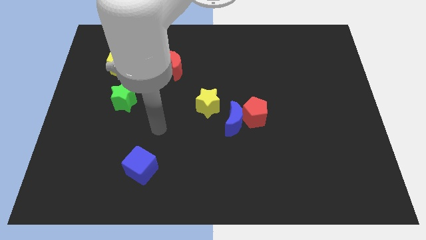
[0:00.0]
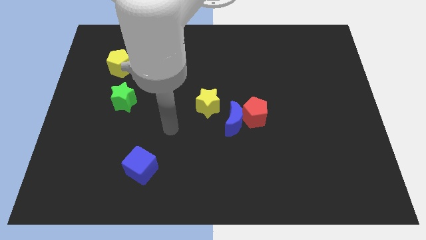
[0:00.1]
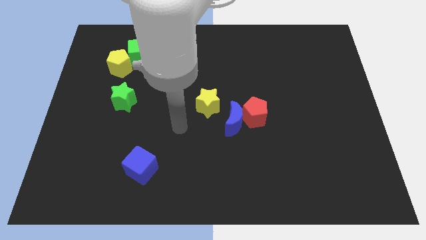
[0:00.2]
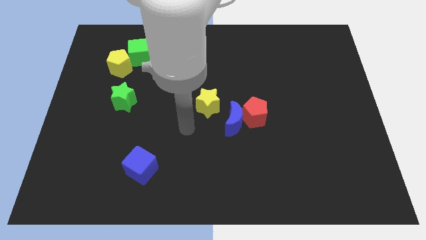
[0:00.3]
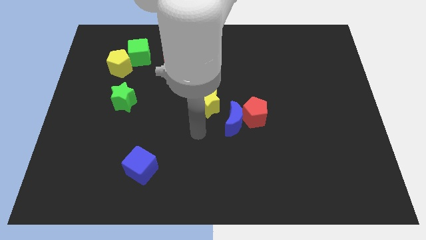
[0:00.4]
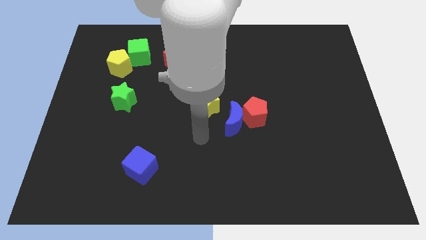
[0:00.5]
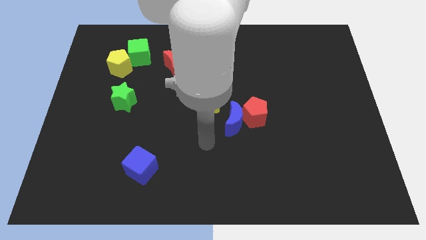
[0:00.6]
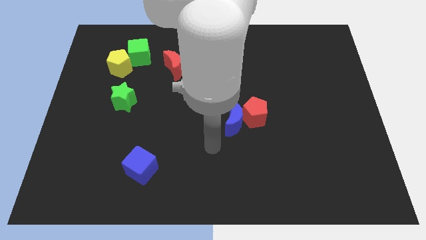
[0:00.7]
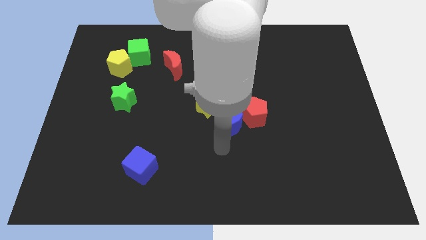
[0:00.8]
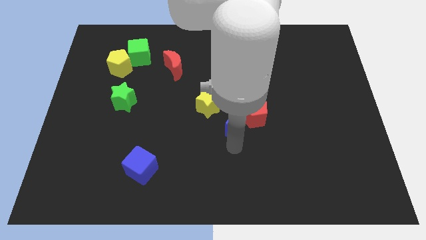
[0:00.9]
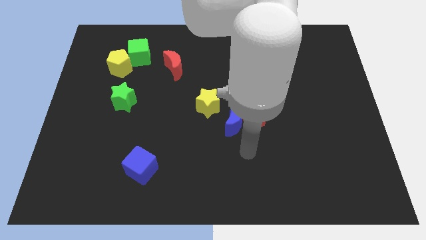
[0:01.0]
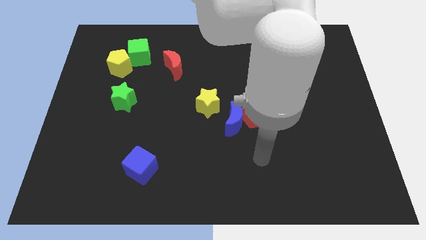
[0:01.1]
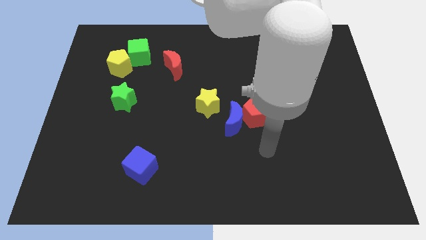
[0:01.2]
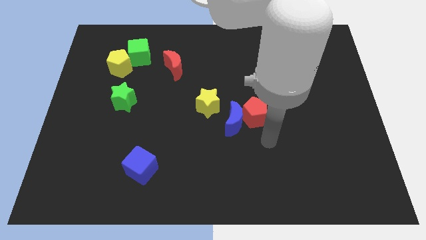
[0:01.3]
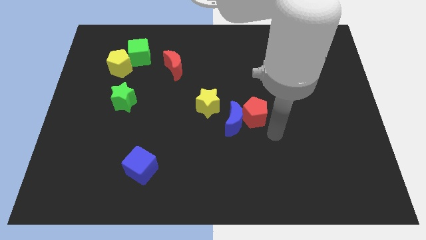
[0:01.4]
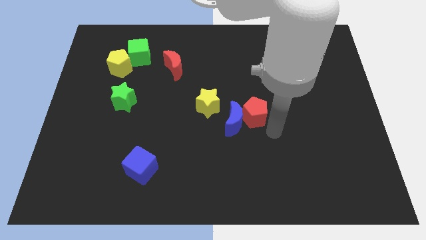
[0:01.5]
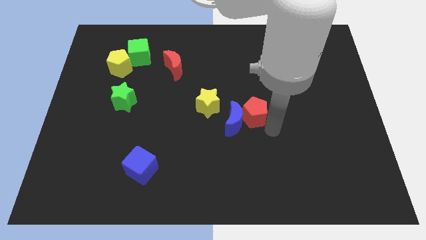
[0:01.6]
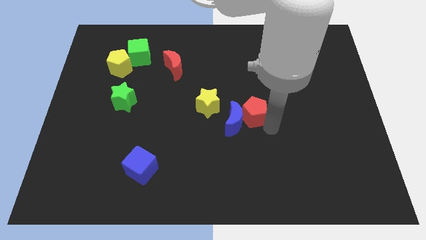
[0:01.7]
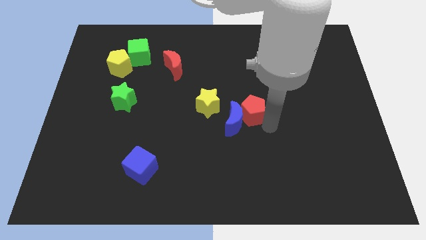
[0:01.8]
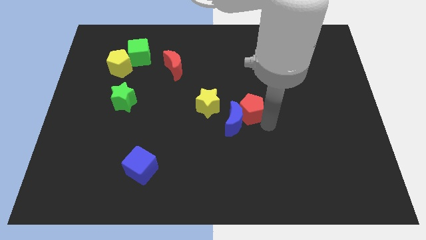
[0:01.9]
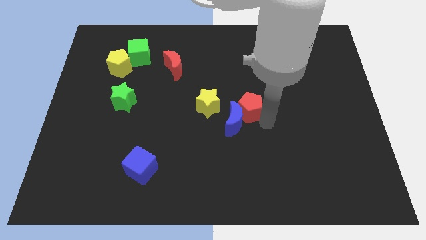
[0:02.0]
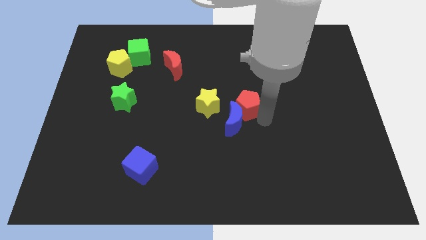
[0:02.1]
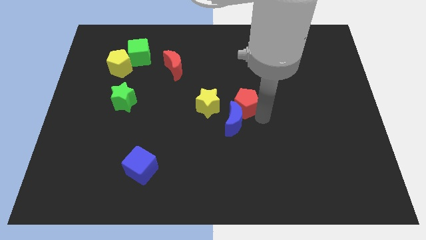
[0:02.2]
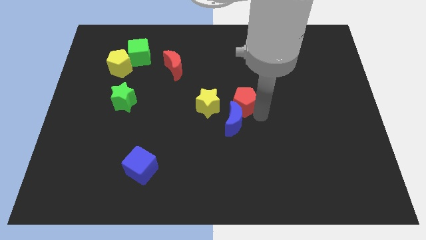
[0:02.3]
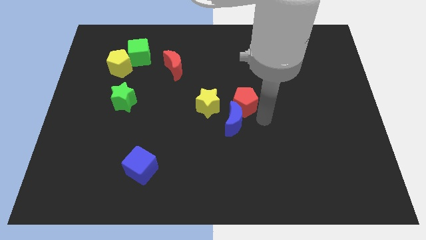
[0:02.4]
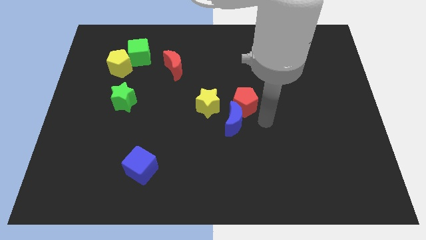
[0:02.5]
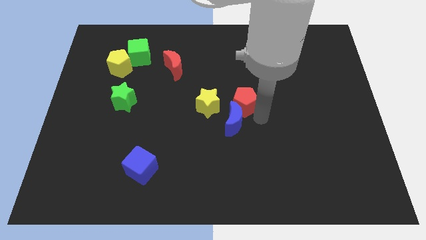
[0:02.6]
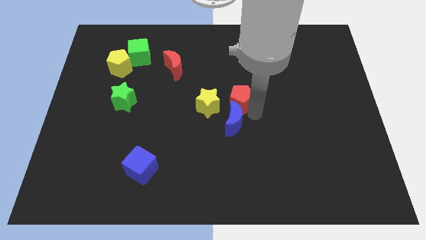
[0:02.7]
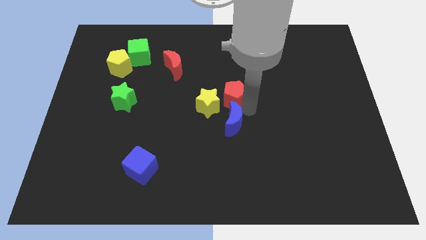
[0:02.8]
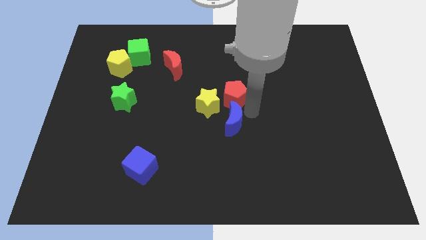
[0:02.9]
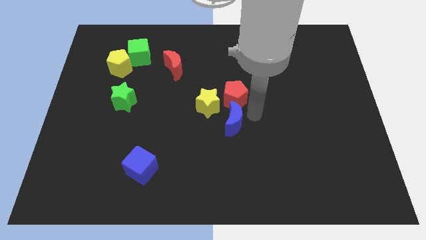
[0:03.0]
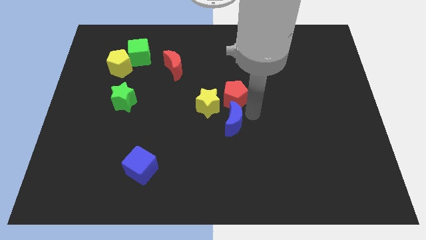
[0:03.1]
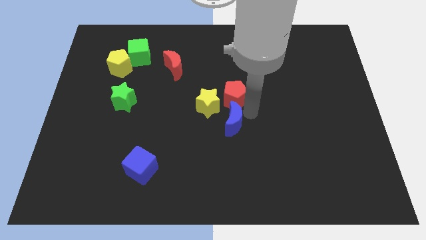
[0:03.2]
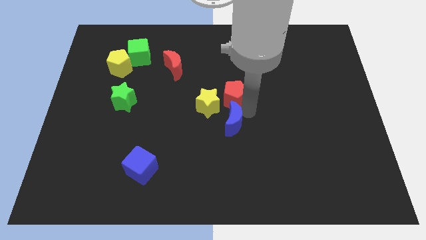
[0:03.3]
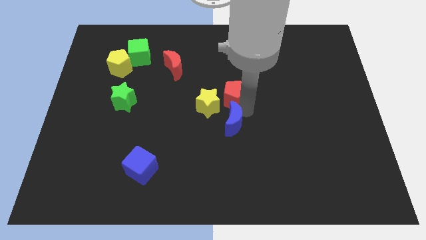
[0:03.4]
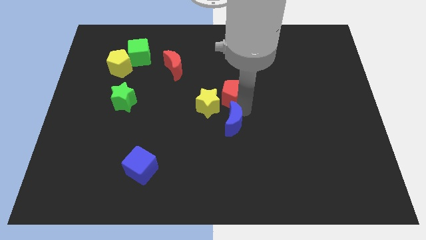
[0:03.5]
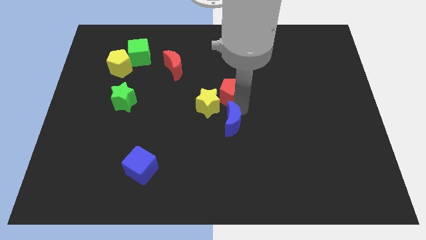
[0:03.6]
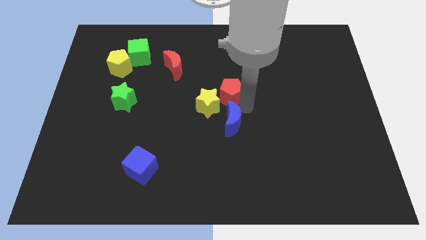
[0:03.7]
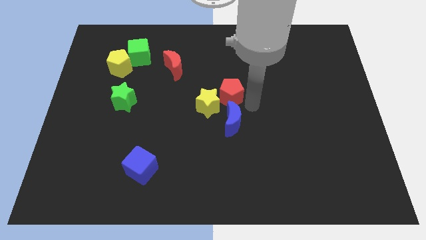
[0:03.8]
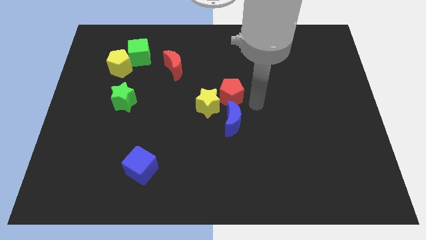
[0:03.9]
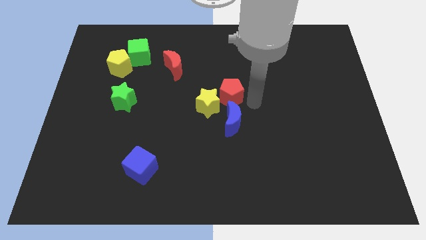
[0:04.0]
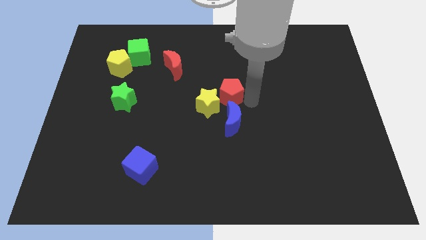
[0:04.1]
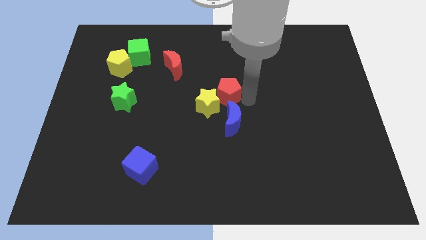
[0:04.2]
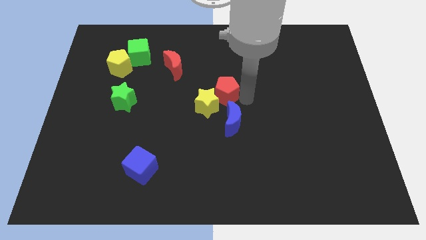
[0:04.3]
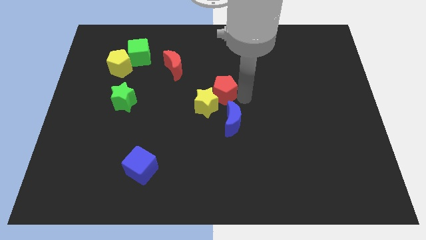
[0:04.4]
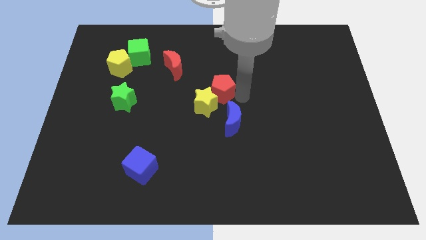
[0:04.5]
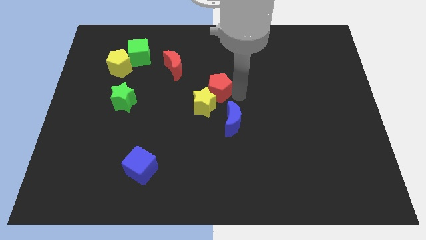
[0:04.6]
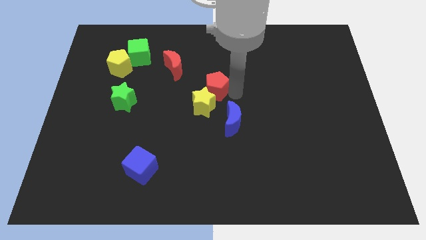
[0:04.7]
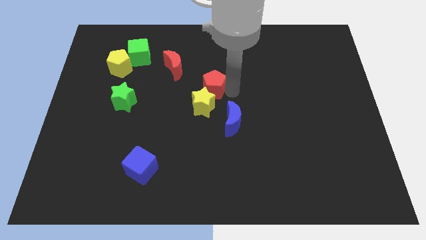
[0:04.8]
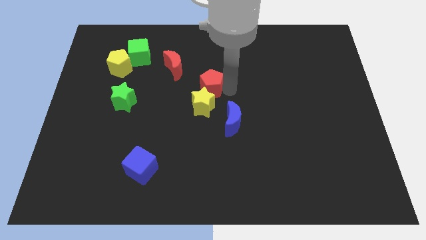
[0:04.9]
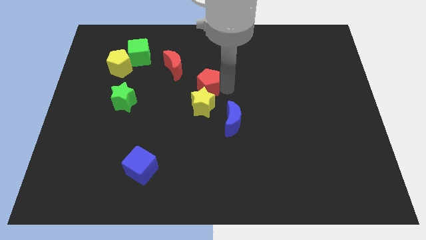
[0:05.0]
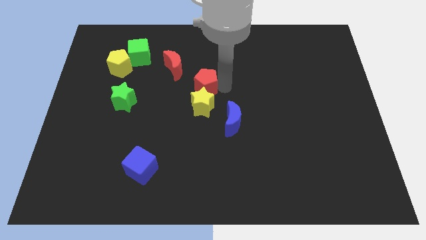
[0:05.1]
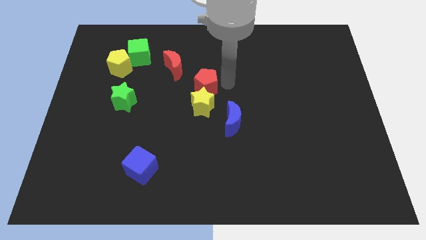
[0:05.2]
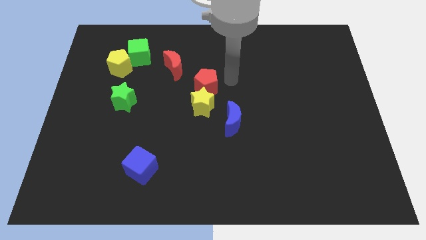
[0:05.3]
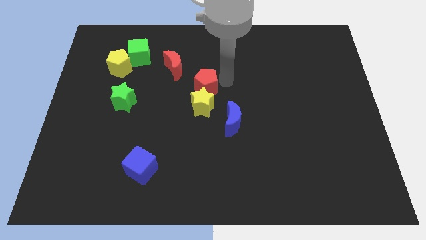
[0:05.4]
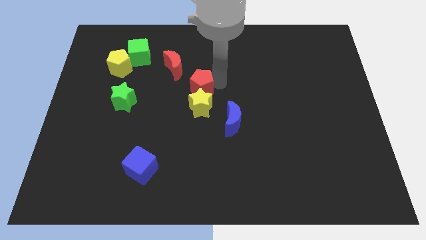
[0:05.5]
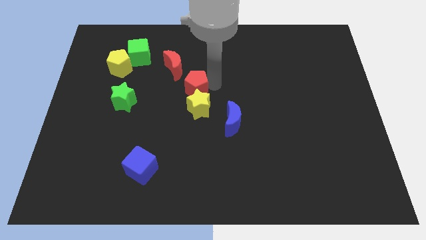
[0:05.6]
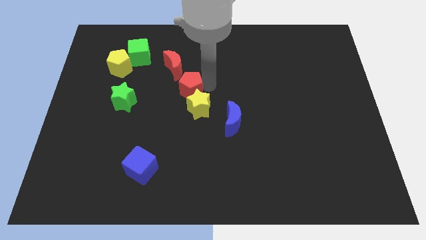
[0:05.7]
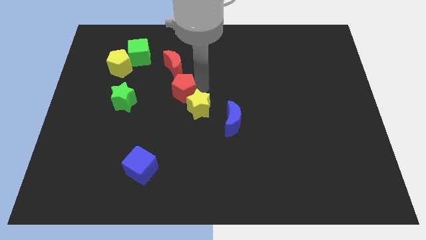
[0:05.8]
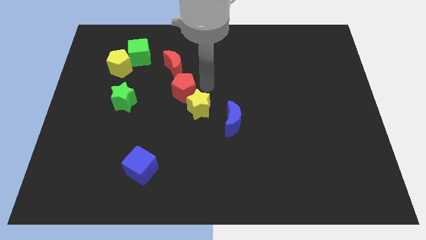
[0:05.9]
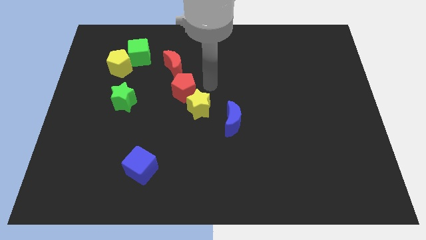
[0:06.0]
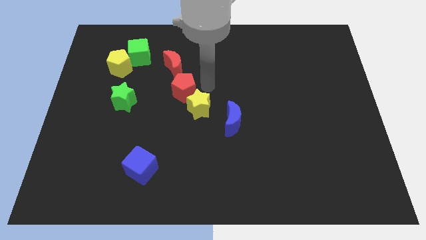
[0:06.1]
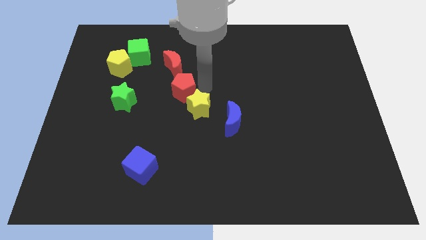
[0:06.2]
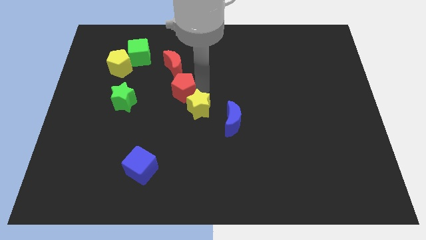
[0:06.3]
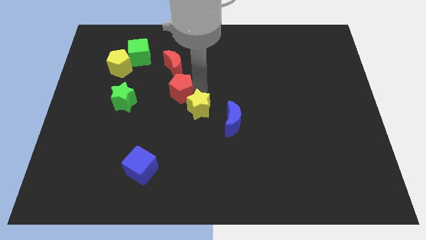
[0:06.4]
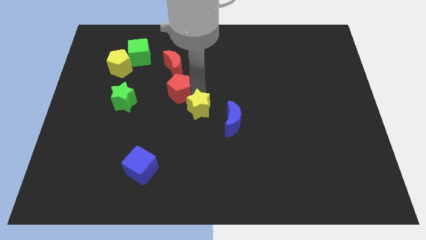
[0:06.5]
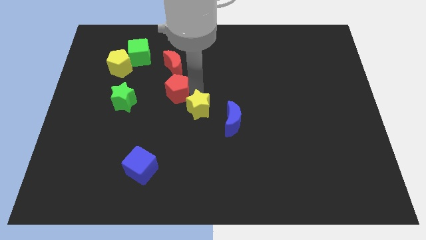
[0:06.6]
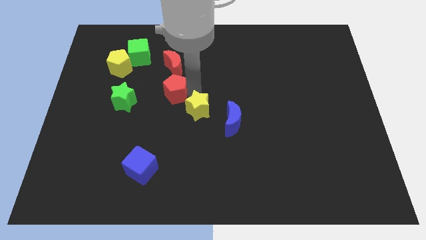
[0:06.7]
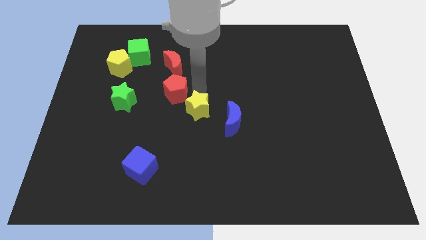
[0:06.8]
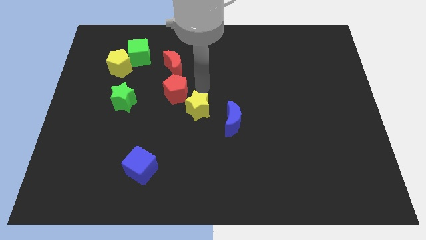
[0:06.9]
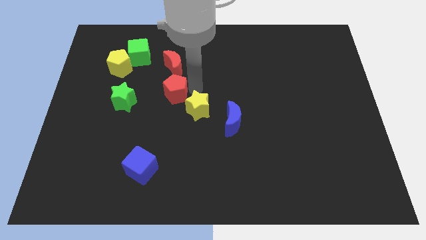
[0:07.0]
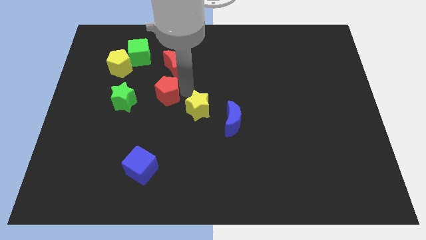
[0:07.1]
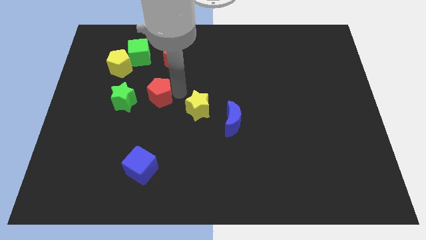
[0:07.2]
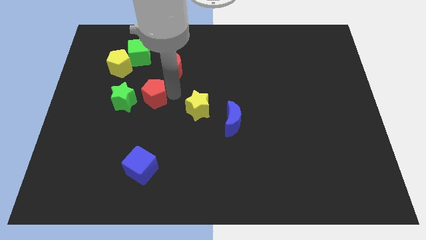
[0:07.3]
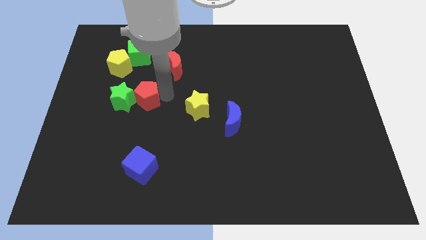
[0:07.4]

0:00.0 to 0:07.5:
put the red pentagon next to the green star
